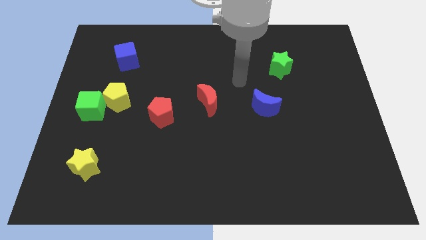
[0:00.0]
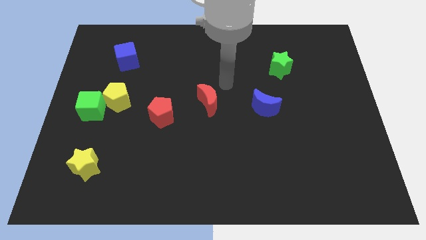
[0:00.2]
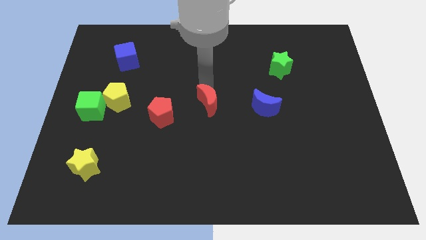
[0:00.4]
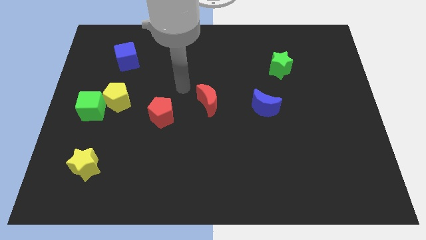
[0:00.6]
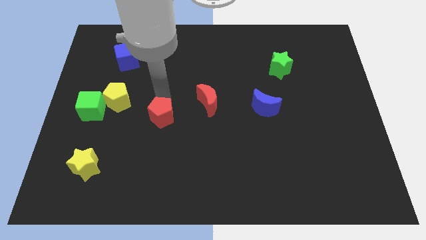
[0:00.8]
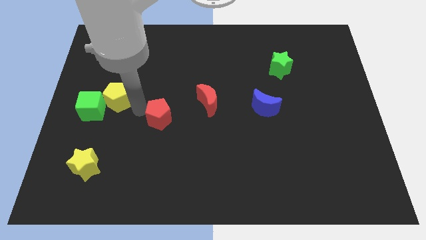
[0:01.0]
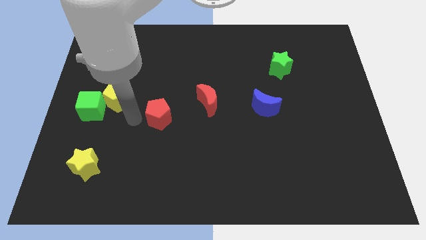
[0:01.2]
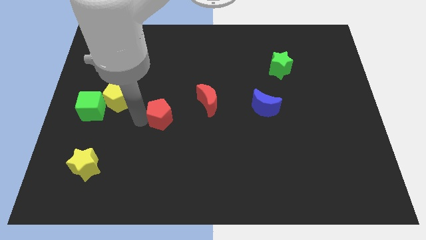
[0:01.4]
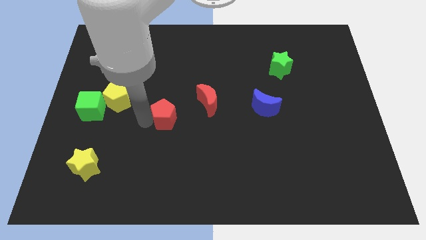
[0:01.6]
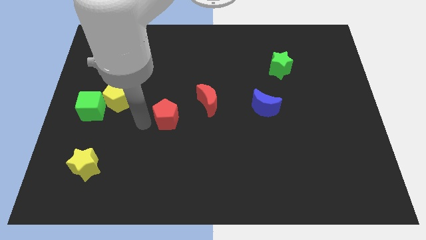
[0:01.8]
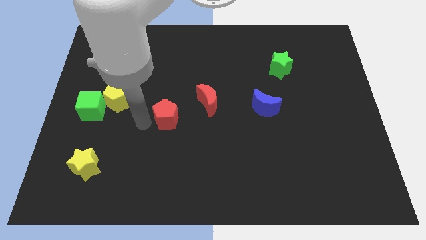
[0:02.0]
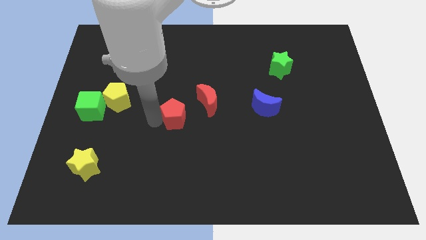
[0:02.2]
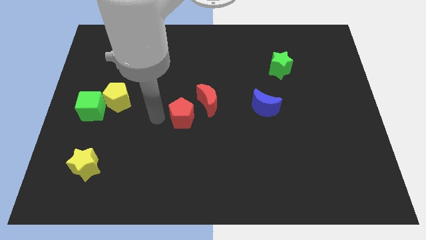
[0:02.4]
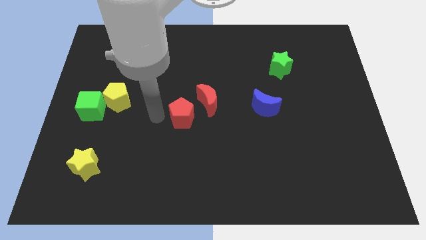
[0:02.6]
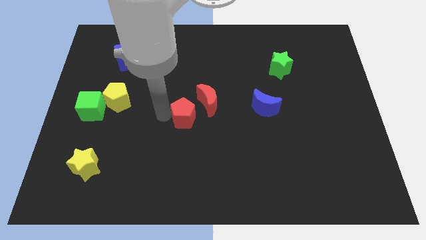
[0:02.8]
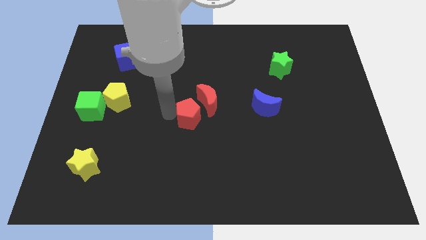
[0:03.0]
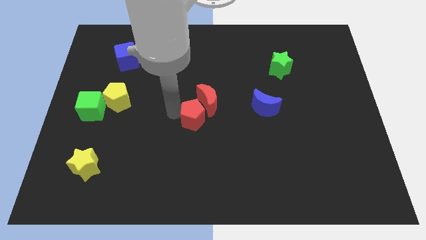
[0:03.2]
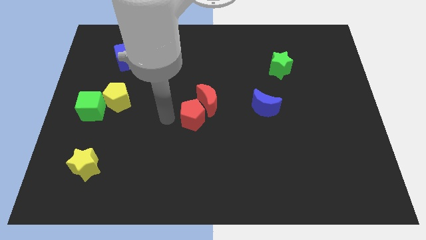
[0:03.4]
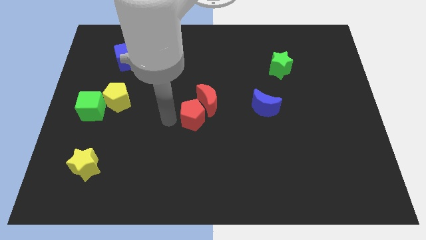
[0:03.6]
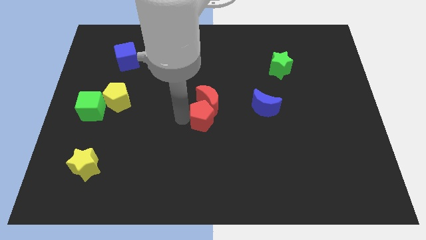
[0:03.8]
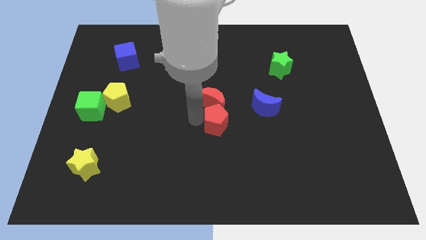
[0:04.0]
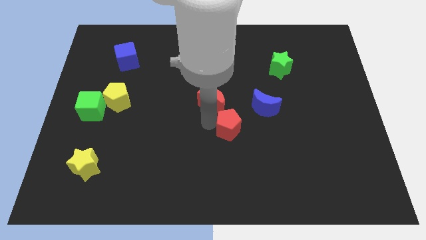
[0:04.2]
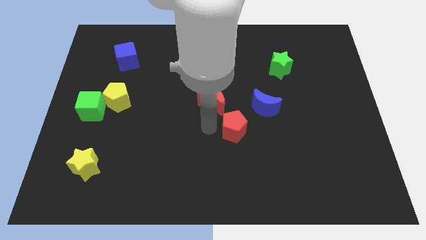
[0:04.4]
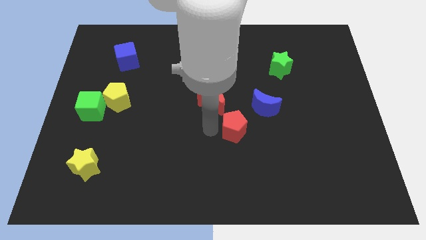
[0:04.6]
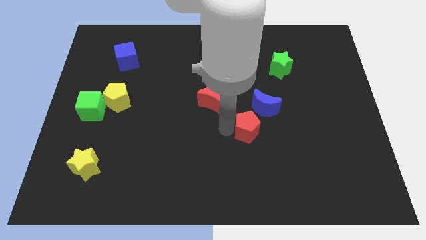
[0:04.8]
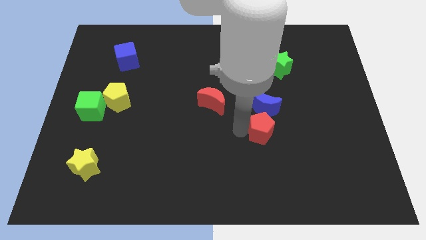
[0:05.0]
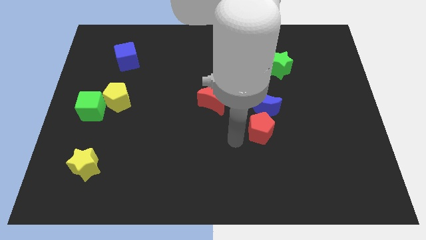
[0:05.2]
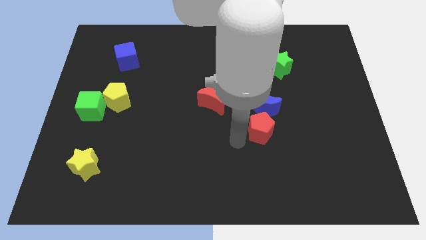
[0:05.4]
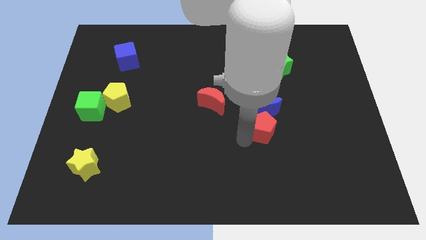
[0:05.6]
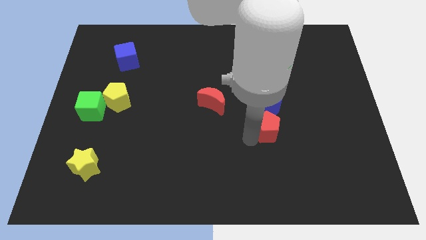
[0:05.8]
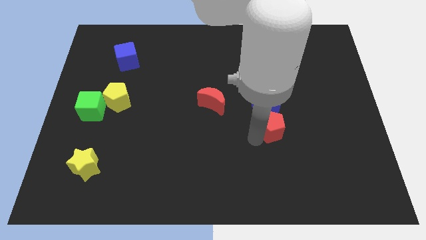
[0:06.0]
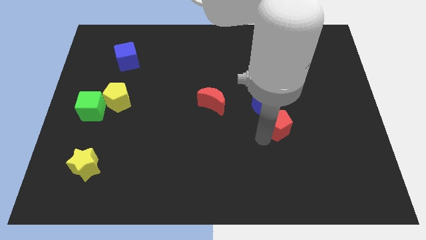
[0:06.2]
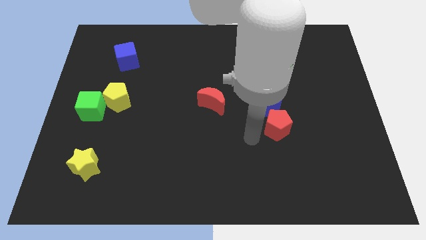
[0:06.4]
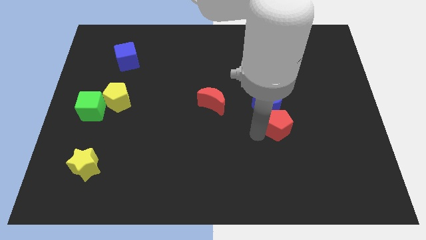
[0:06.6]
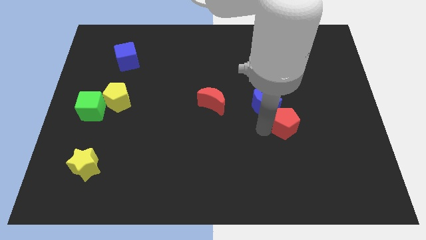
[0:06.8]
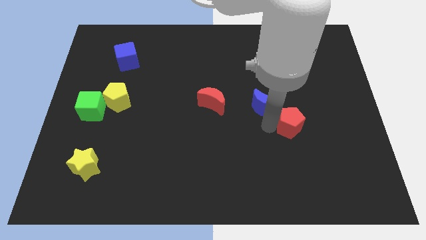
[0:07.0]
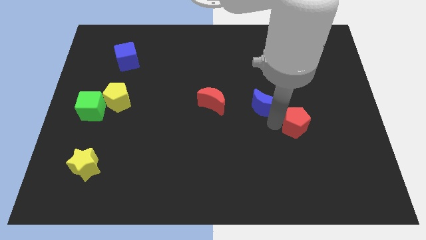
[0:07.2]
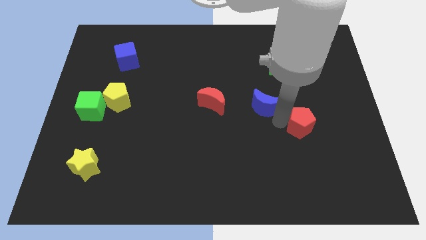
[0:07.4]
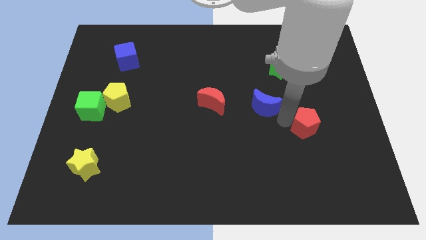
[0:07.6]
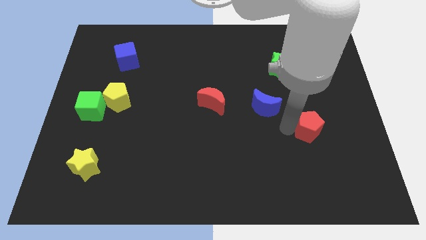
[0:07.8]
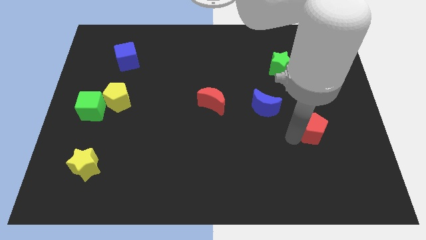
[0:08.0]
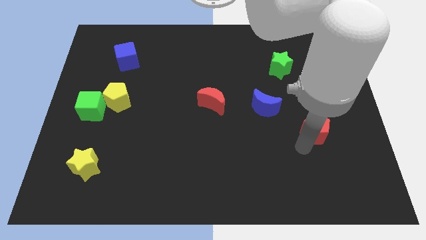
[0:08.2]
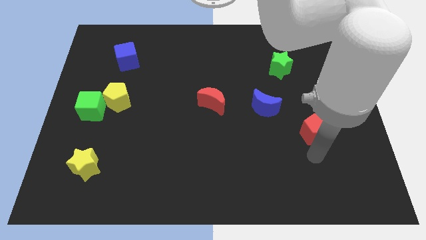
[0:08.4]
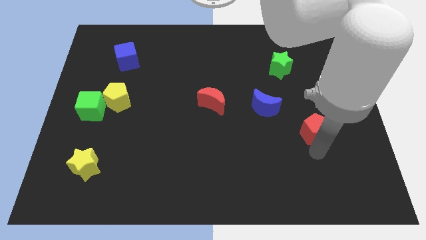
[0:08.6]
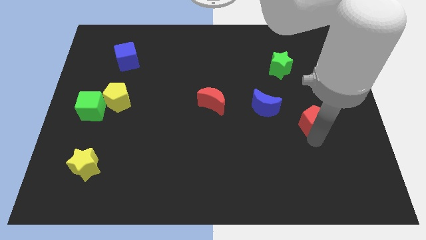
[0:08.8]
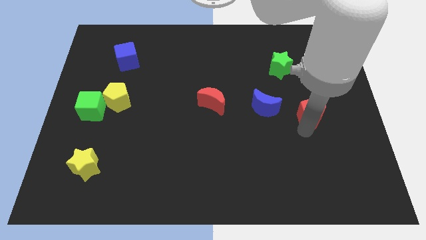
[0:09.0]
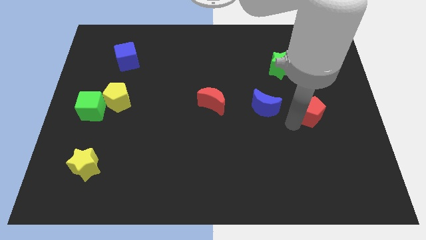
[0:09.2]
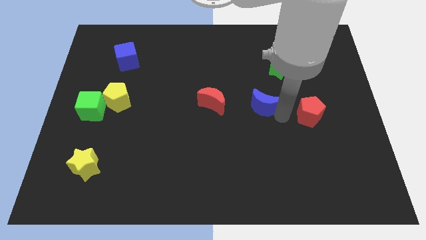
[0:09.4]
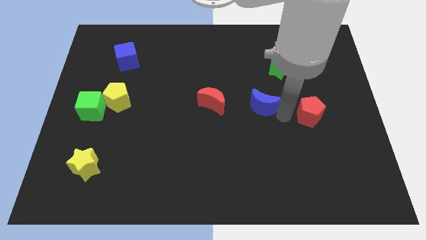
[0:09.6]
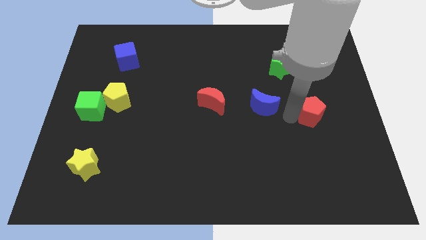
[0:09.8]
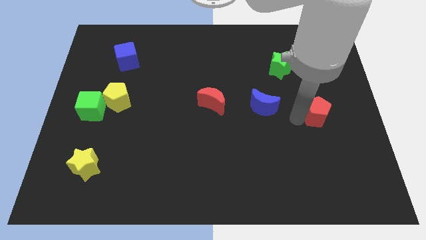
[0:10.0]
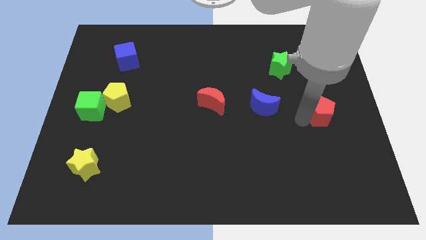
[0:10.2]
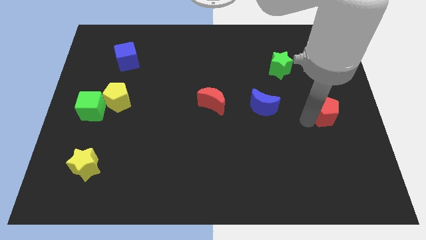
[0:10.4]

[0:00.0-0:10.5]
move the red pentagon to the right side

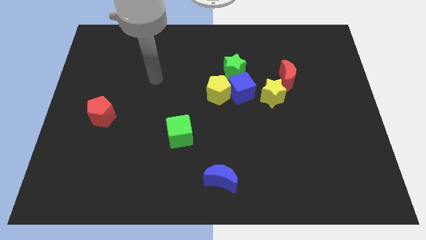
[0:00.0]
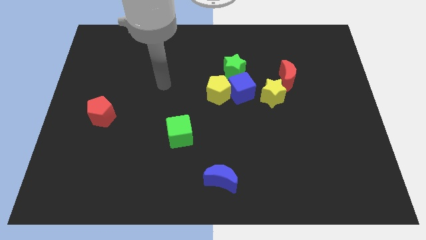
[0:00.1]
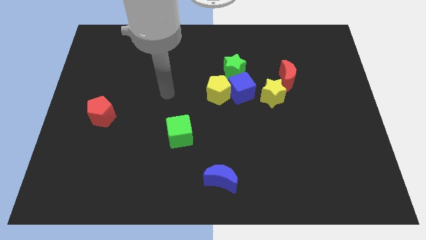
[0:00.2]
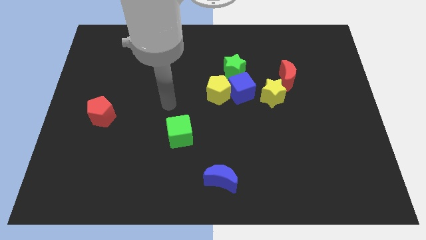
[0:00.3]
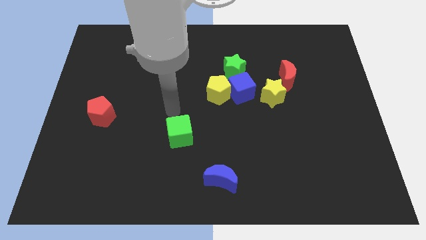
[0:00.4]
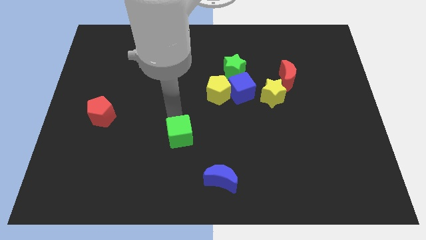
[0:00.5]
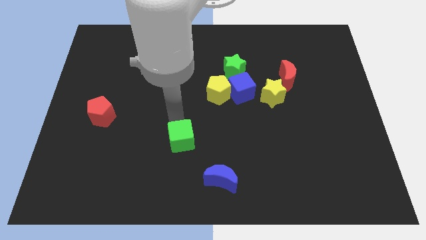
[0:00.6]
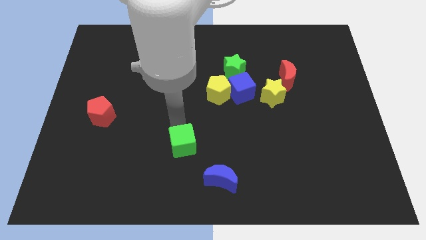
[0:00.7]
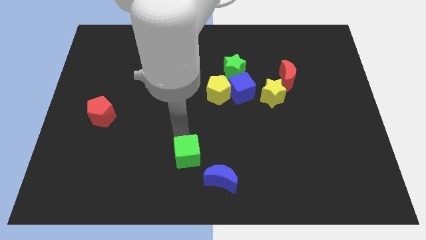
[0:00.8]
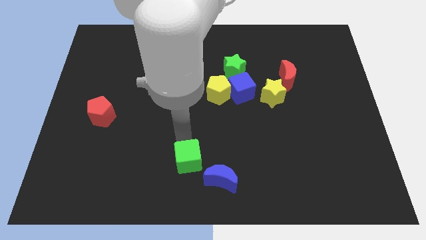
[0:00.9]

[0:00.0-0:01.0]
slide the green cube to the bottom side
